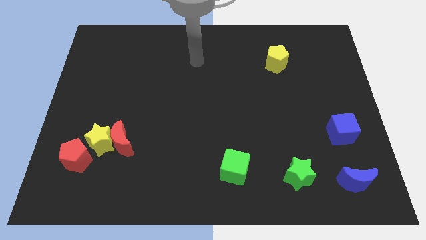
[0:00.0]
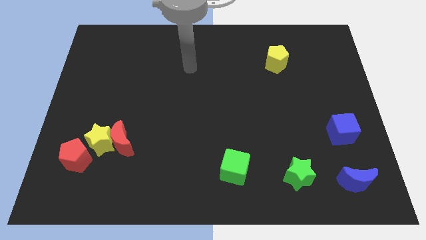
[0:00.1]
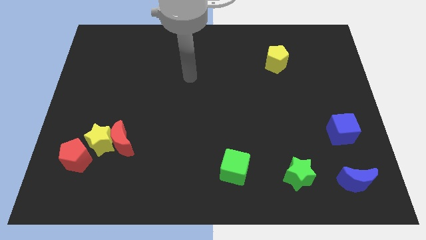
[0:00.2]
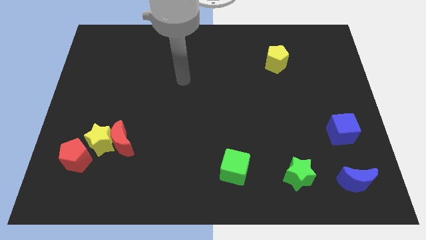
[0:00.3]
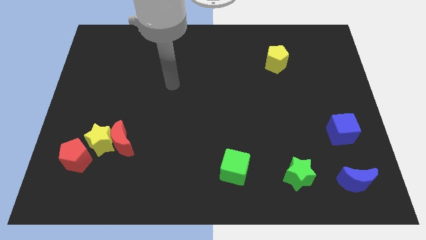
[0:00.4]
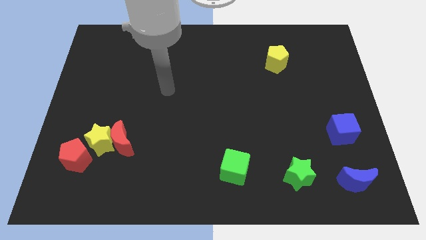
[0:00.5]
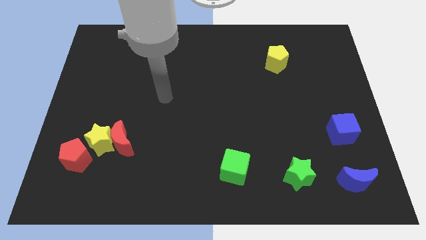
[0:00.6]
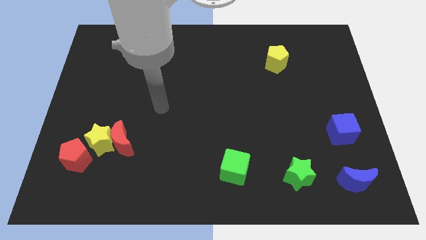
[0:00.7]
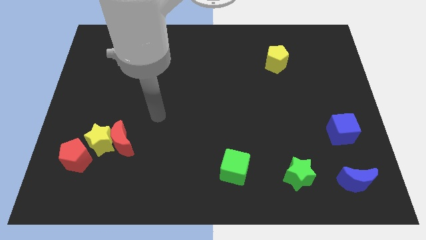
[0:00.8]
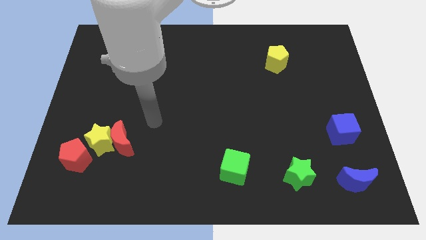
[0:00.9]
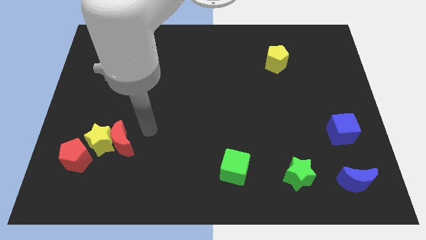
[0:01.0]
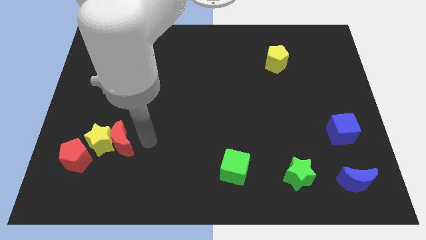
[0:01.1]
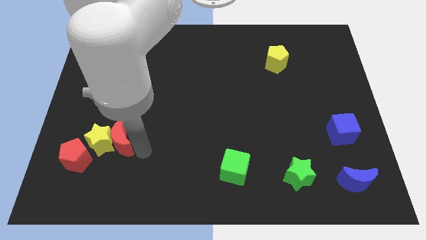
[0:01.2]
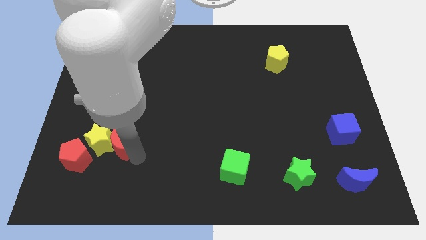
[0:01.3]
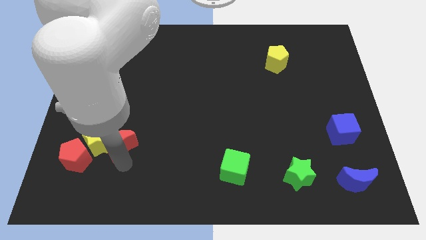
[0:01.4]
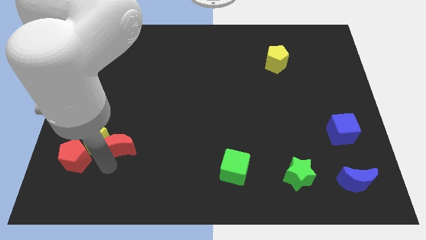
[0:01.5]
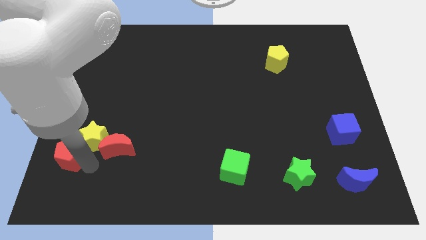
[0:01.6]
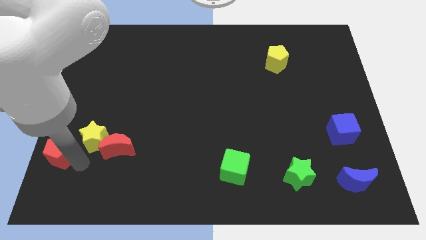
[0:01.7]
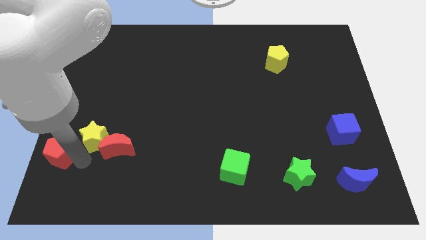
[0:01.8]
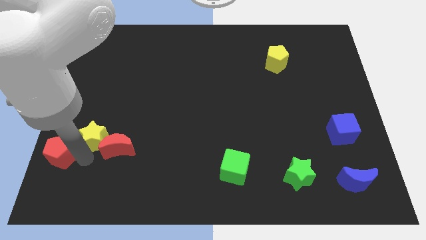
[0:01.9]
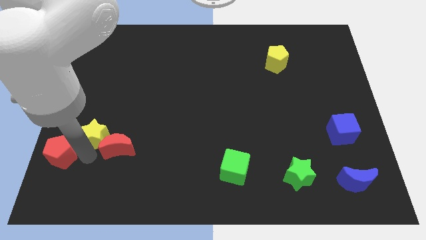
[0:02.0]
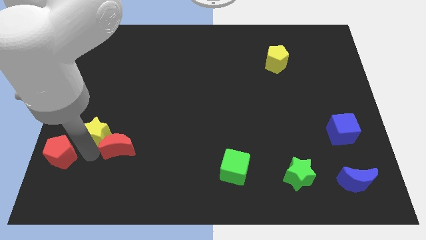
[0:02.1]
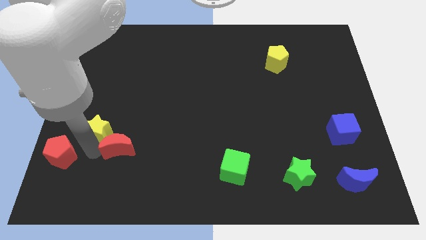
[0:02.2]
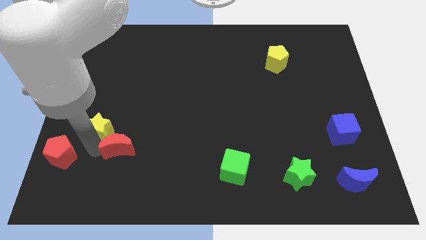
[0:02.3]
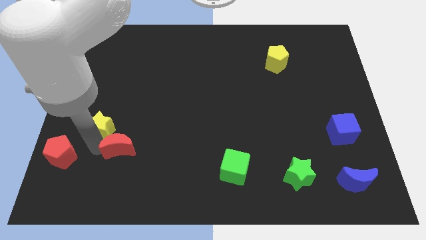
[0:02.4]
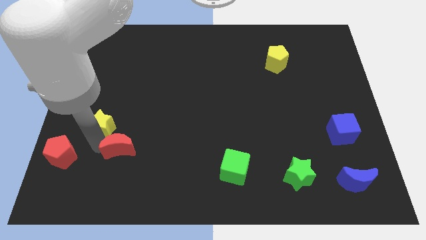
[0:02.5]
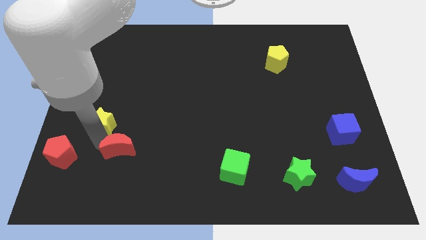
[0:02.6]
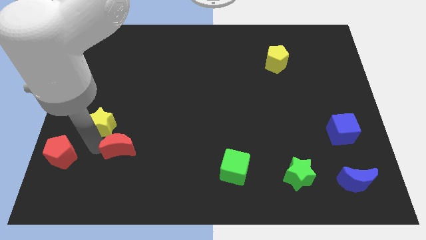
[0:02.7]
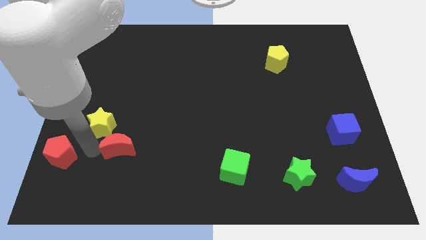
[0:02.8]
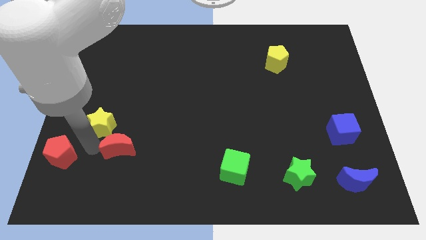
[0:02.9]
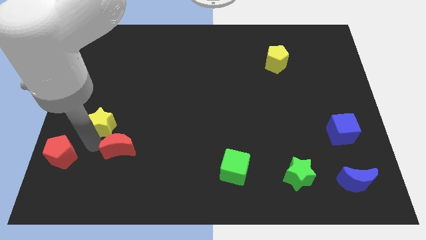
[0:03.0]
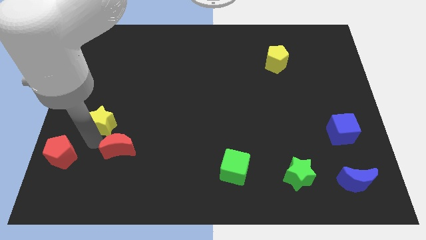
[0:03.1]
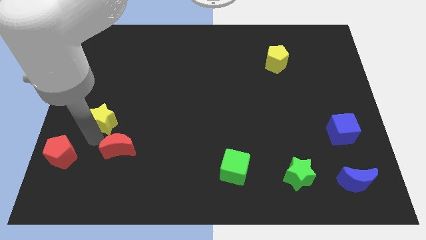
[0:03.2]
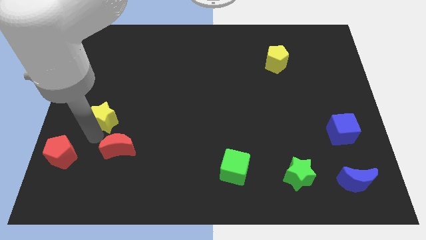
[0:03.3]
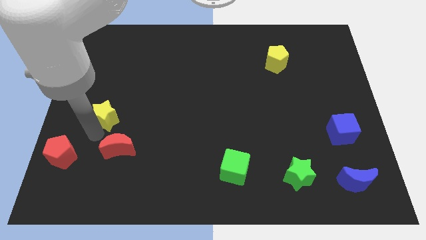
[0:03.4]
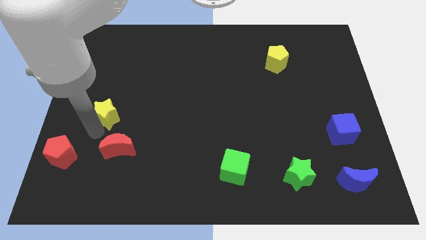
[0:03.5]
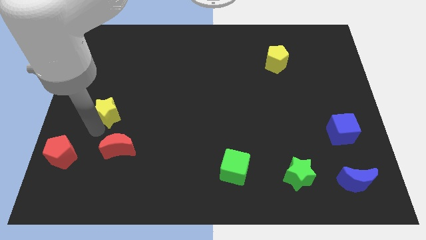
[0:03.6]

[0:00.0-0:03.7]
separate the yellow star from the red moon and red pentagon

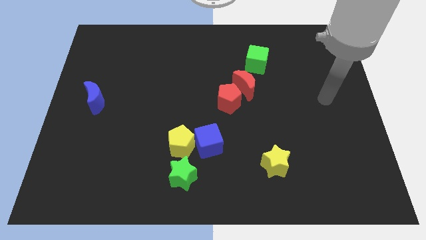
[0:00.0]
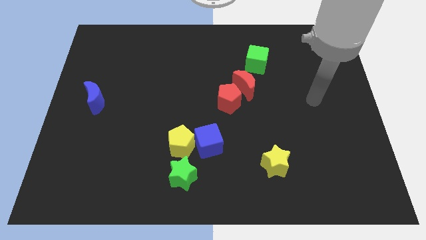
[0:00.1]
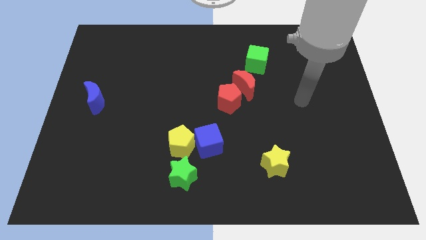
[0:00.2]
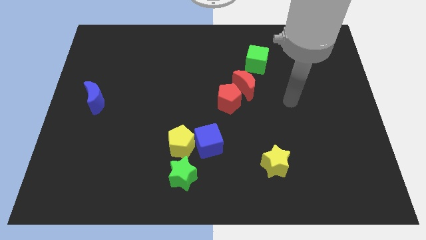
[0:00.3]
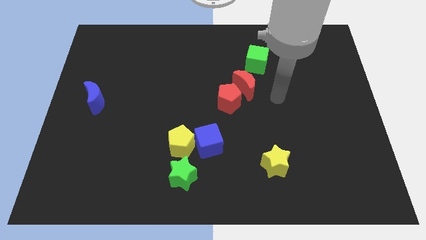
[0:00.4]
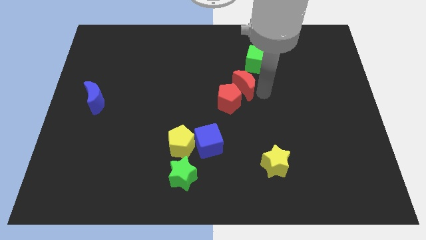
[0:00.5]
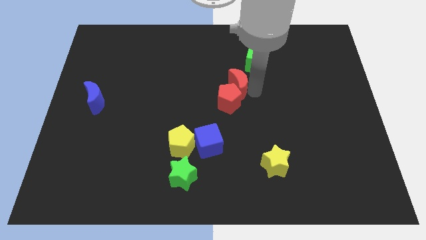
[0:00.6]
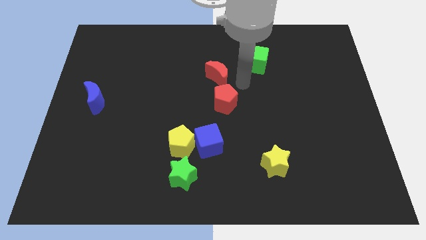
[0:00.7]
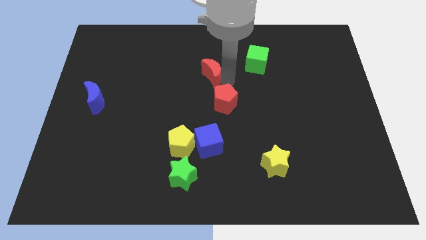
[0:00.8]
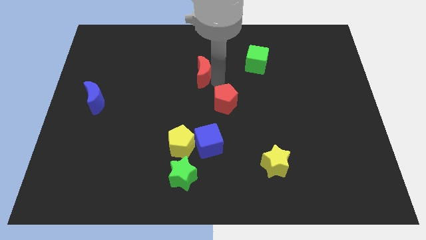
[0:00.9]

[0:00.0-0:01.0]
move the red pentagon away from the red moon

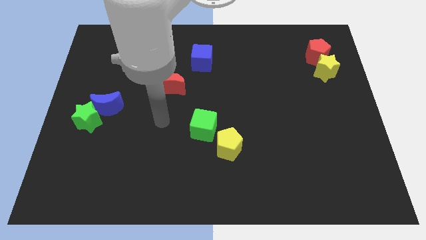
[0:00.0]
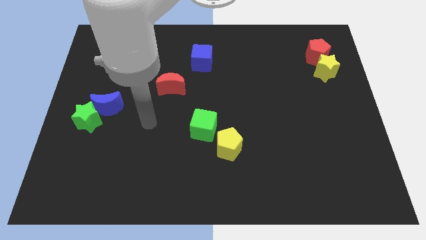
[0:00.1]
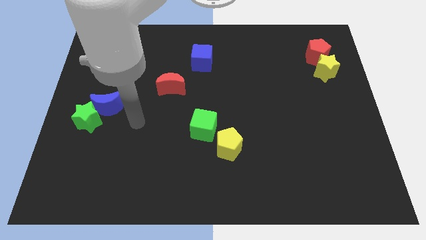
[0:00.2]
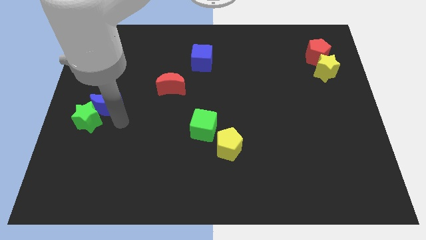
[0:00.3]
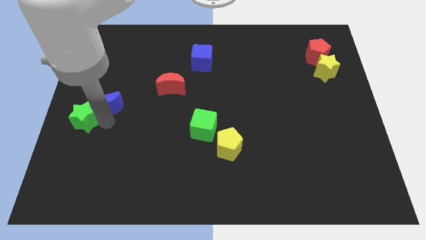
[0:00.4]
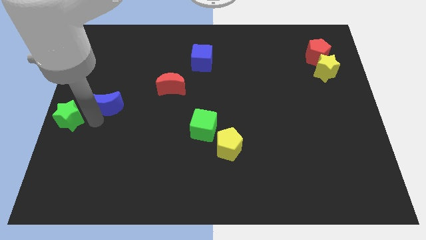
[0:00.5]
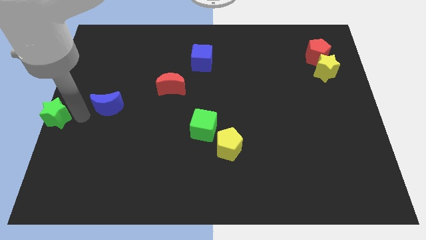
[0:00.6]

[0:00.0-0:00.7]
pull the blue moon apart from the green star

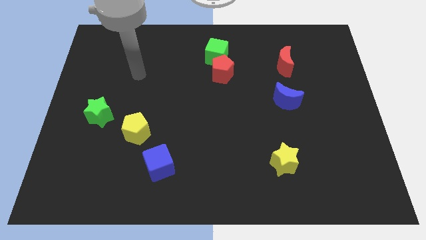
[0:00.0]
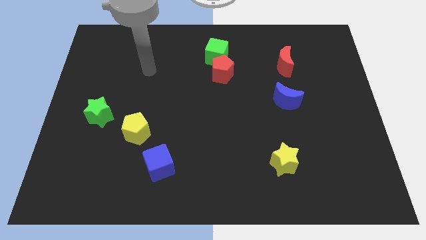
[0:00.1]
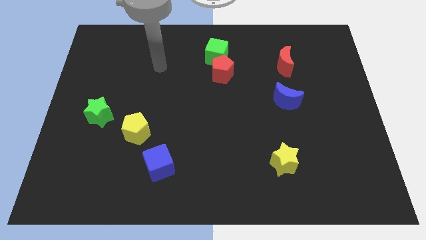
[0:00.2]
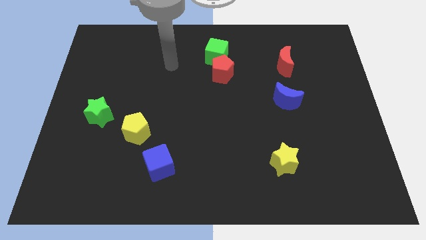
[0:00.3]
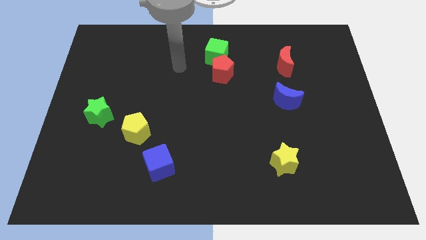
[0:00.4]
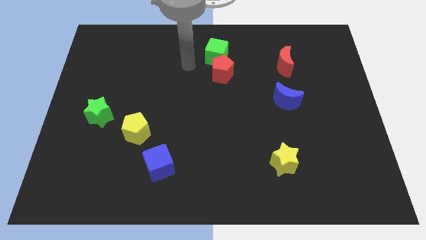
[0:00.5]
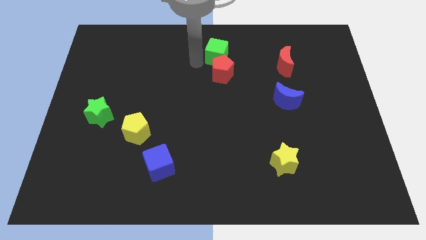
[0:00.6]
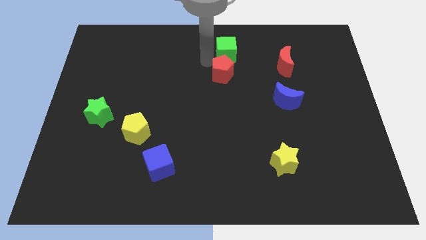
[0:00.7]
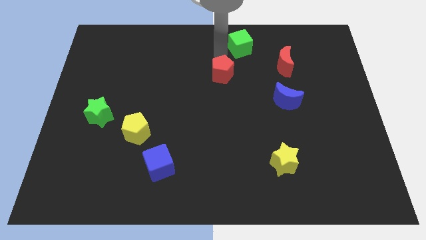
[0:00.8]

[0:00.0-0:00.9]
pull the red pentagon apart from the green cube

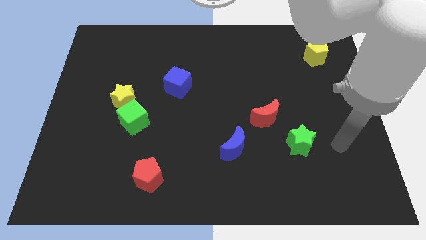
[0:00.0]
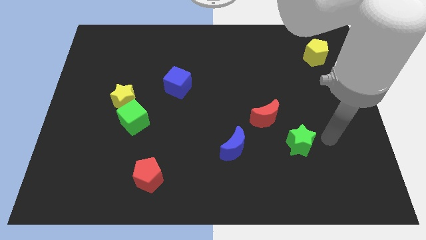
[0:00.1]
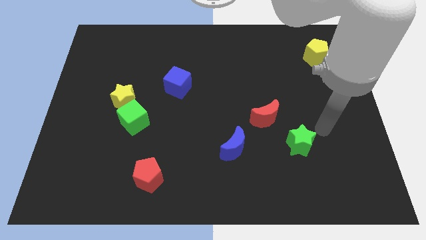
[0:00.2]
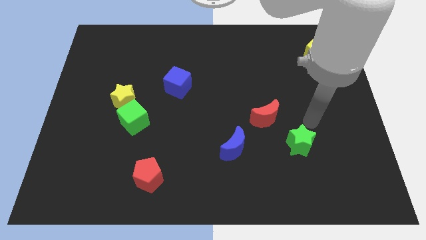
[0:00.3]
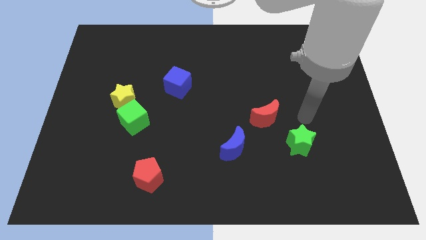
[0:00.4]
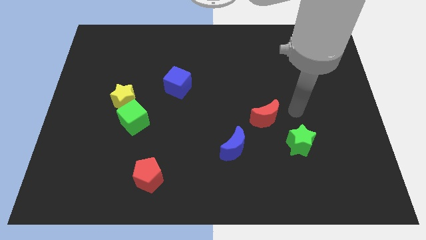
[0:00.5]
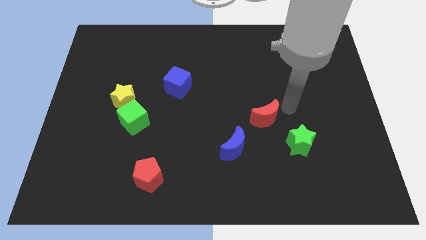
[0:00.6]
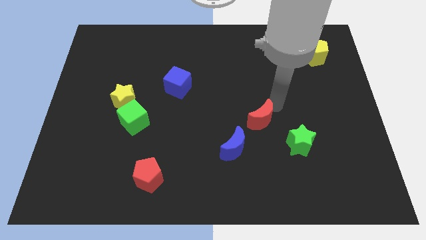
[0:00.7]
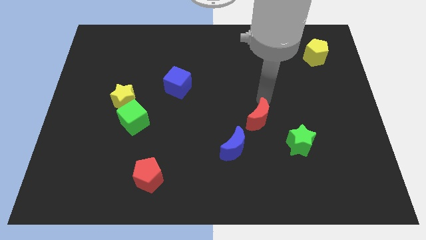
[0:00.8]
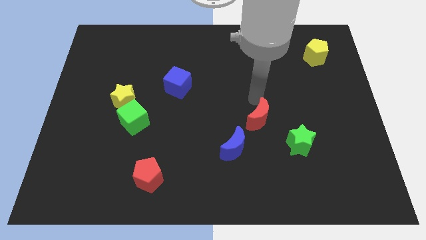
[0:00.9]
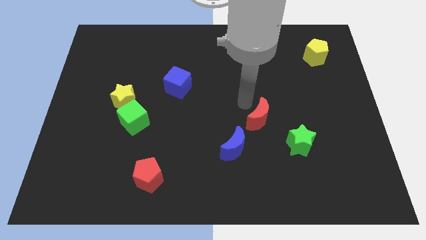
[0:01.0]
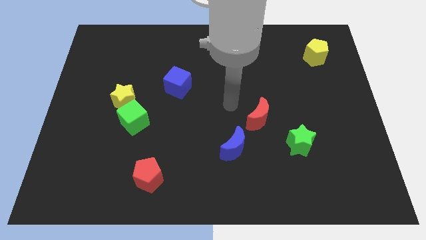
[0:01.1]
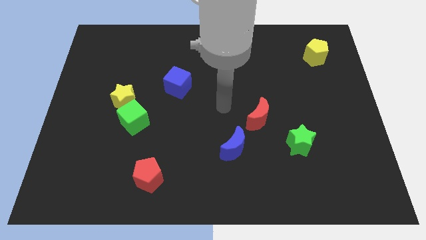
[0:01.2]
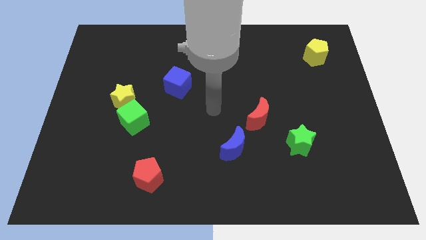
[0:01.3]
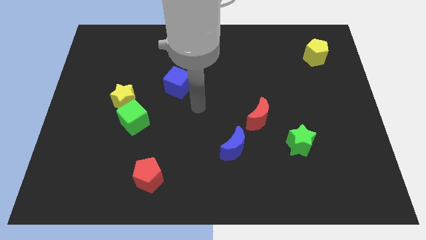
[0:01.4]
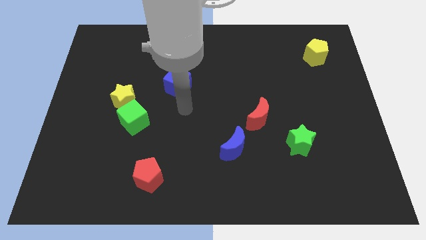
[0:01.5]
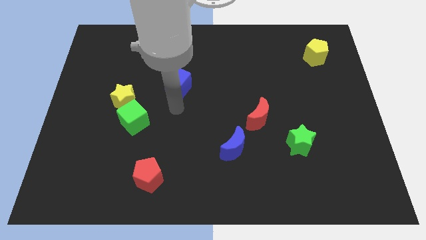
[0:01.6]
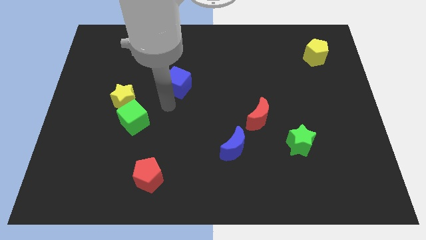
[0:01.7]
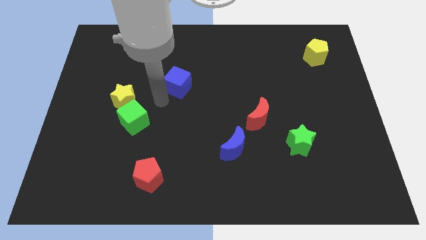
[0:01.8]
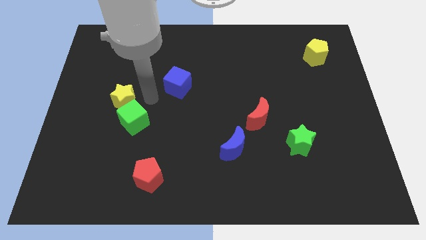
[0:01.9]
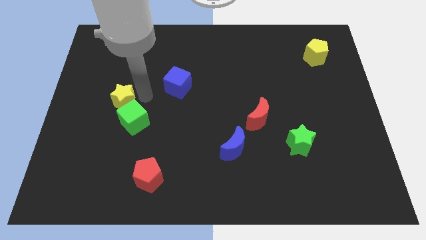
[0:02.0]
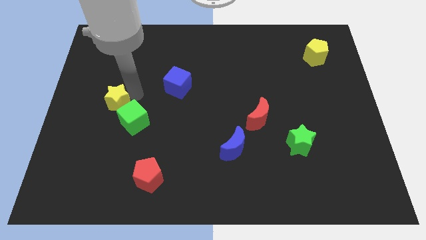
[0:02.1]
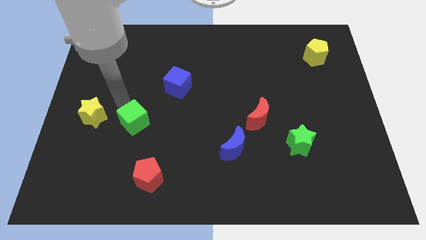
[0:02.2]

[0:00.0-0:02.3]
move the green cube away from the yellow star

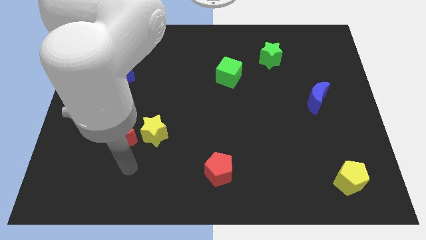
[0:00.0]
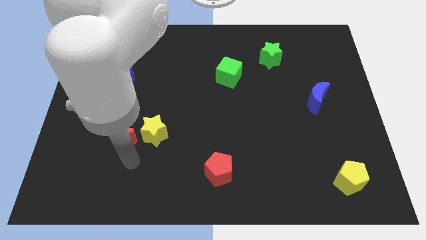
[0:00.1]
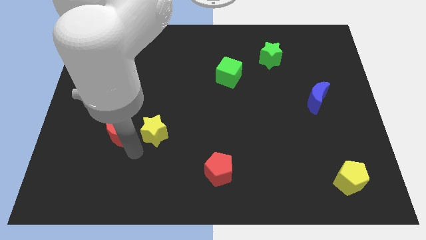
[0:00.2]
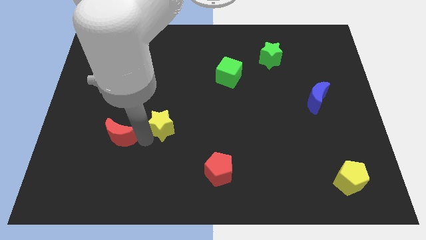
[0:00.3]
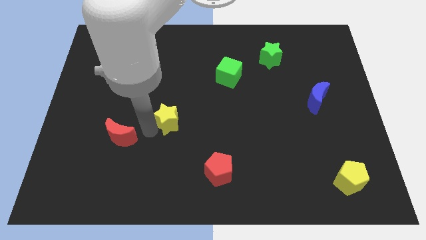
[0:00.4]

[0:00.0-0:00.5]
pull the red moon apart from the yellow star

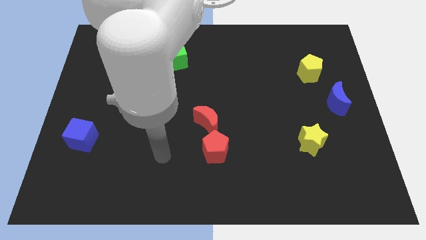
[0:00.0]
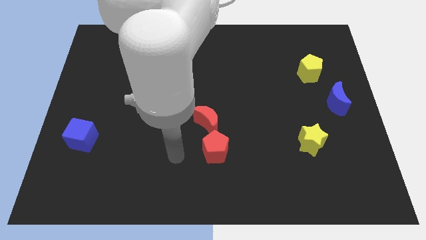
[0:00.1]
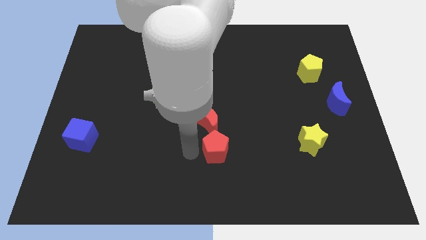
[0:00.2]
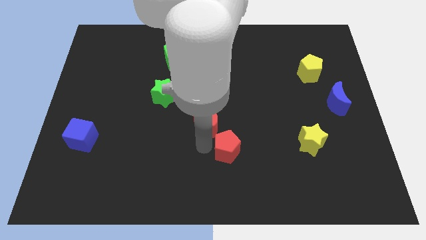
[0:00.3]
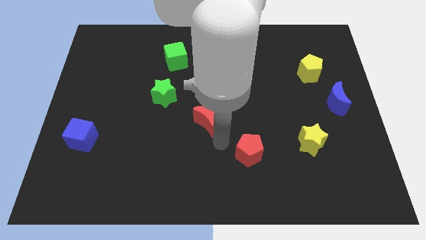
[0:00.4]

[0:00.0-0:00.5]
pull the red moon apart from the red pentagon
